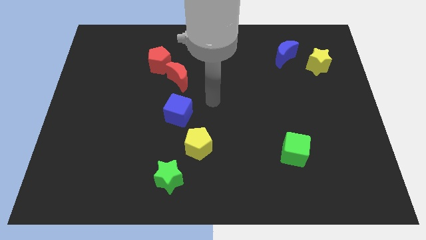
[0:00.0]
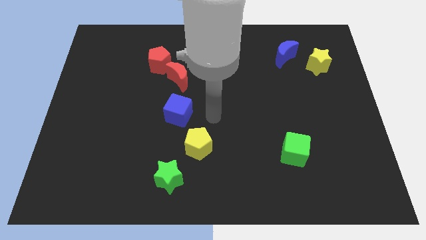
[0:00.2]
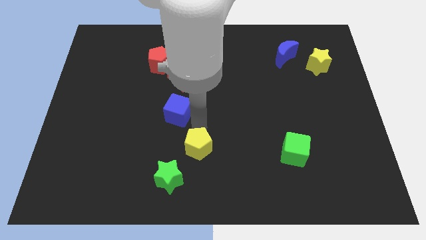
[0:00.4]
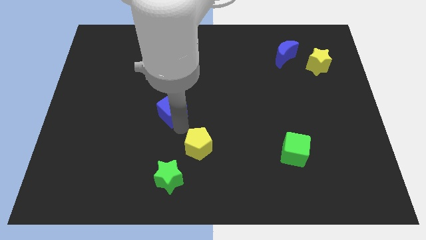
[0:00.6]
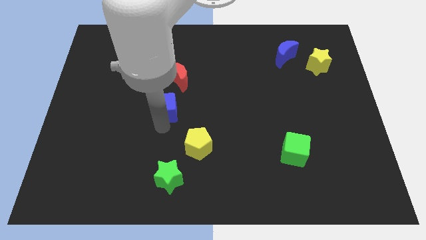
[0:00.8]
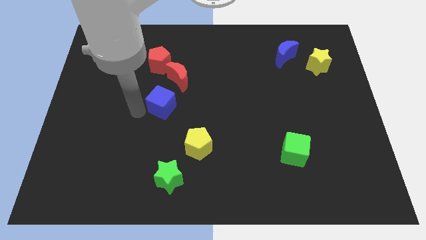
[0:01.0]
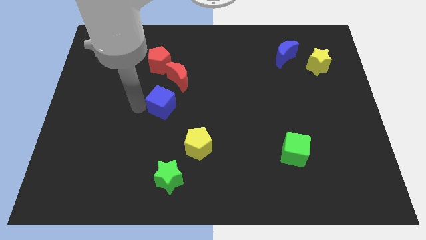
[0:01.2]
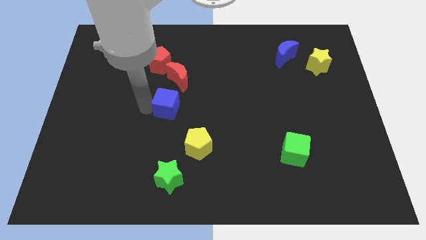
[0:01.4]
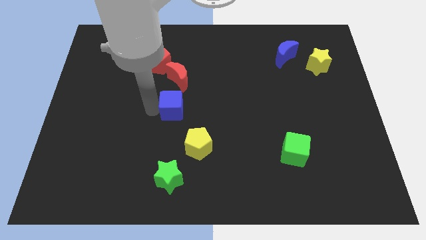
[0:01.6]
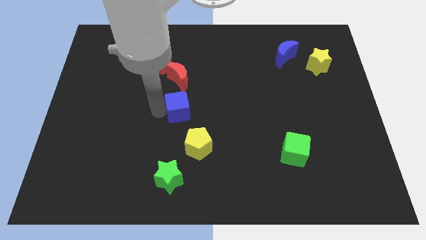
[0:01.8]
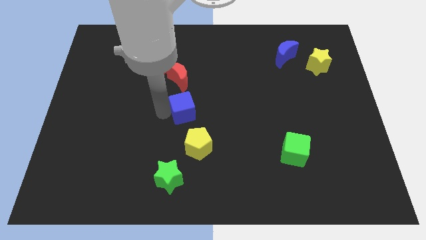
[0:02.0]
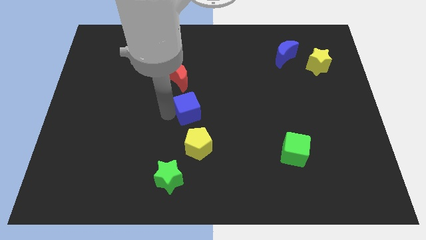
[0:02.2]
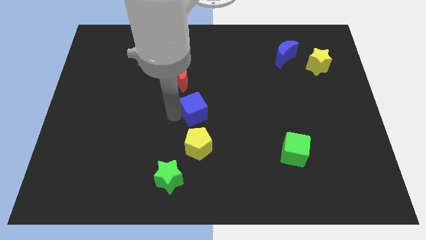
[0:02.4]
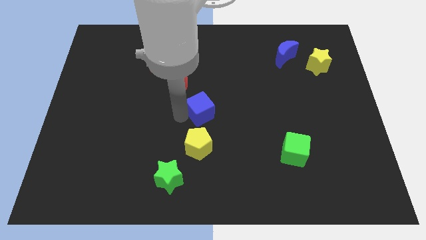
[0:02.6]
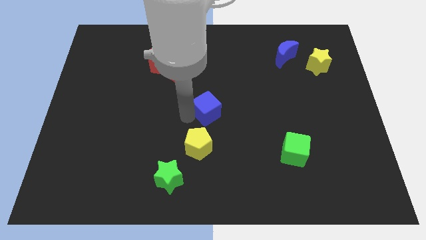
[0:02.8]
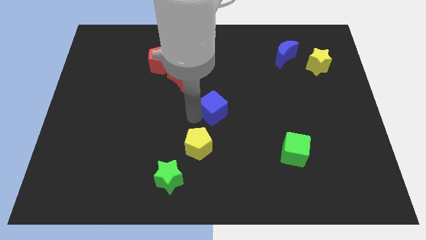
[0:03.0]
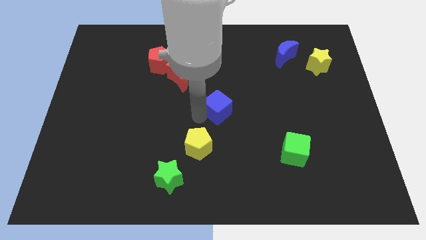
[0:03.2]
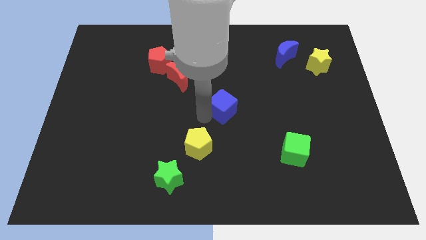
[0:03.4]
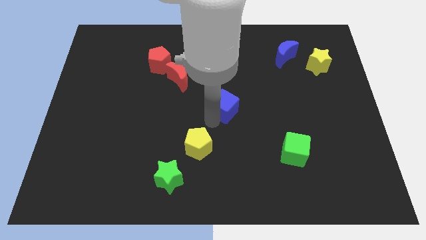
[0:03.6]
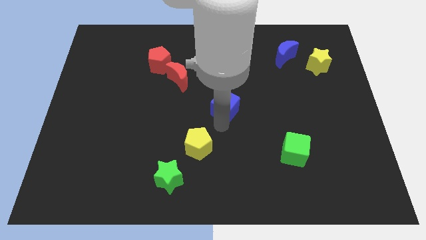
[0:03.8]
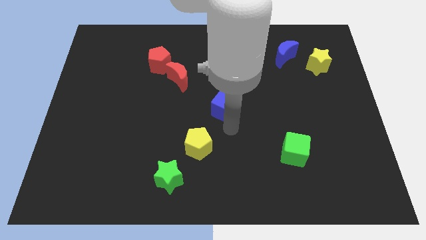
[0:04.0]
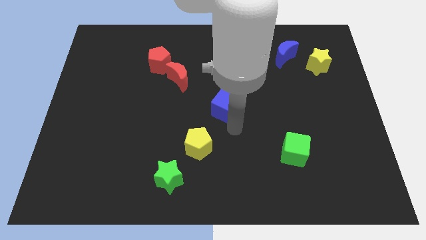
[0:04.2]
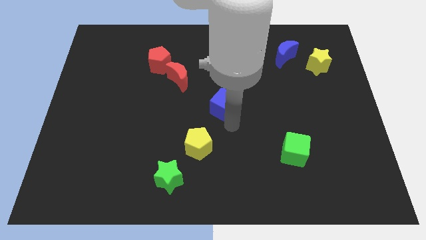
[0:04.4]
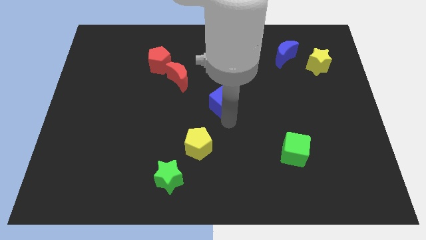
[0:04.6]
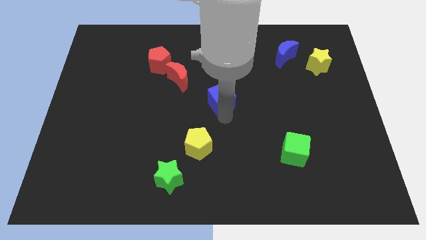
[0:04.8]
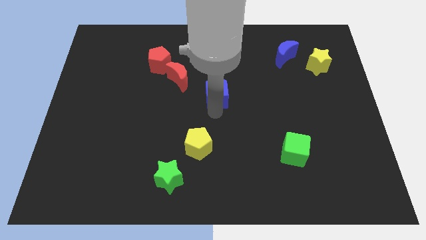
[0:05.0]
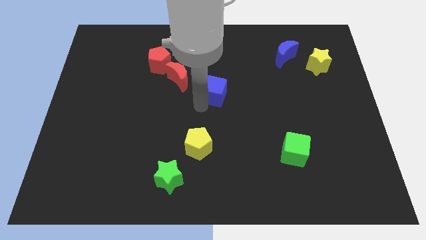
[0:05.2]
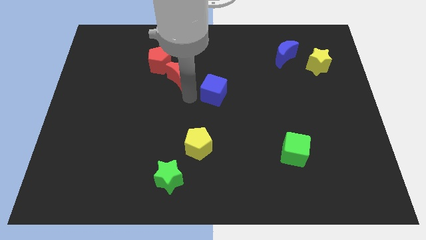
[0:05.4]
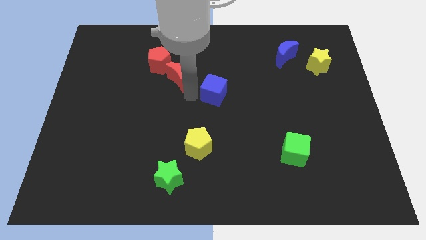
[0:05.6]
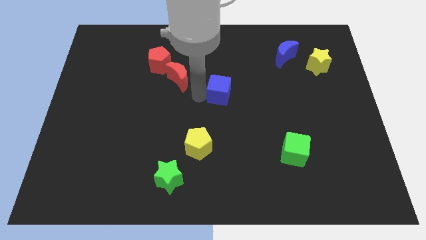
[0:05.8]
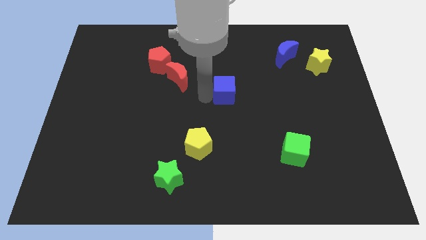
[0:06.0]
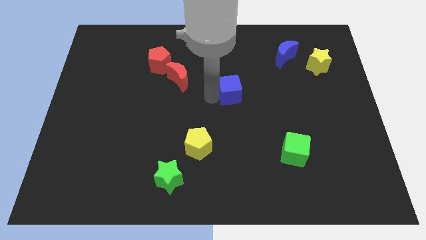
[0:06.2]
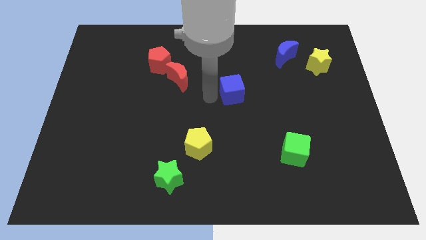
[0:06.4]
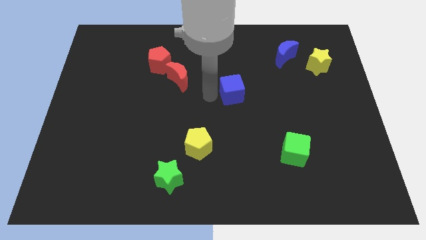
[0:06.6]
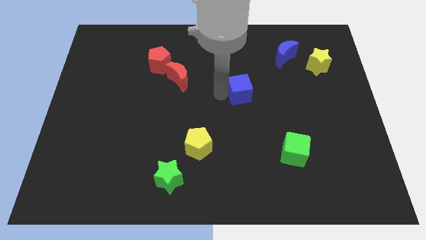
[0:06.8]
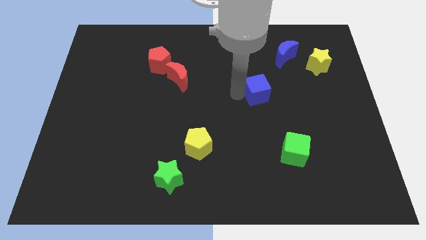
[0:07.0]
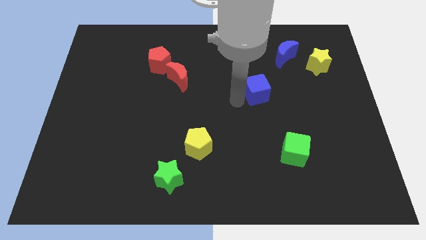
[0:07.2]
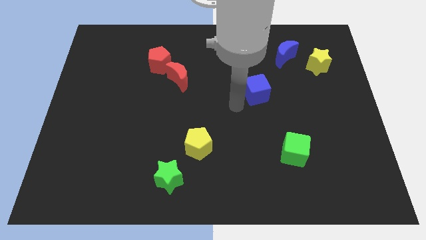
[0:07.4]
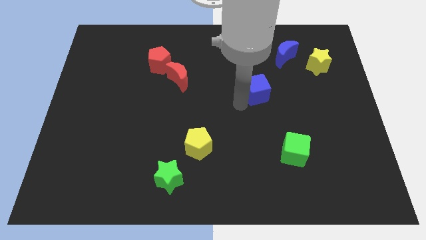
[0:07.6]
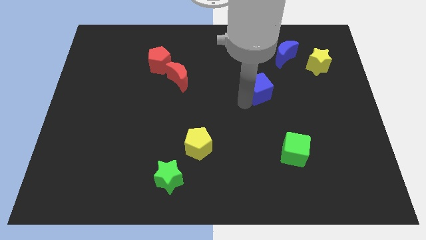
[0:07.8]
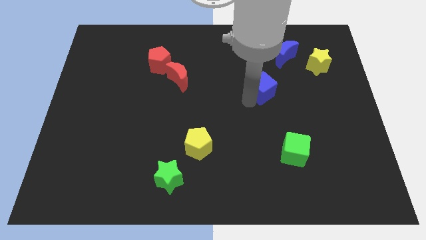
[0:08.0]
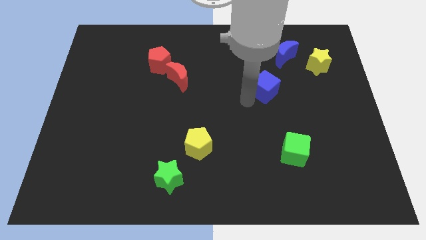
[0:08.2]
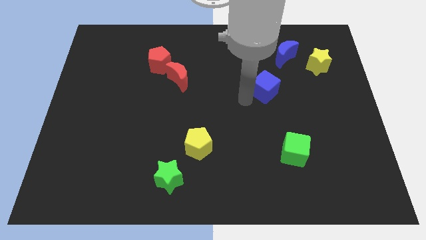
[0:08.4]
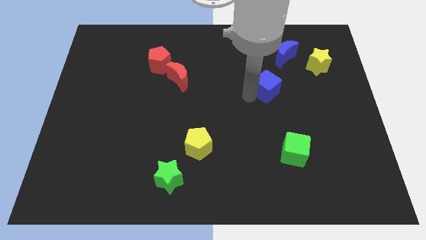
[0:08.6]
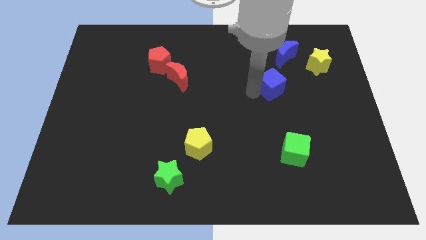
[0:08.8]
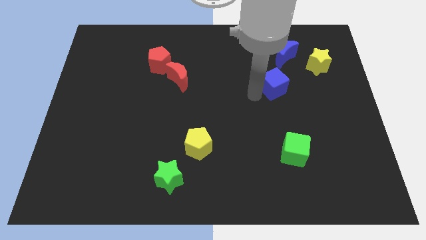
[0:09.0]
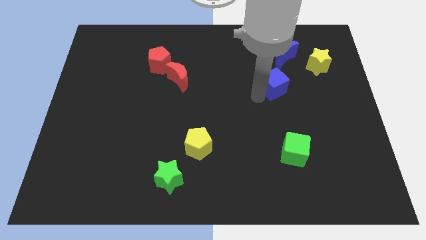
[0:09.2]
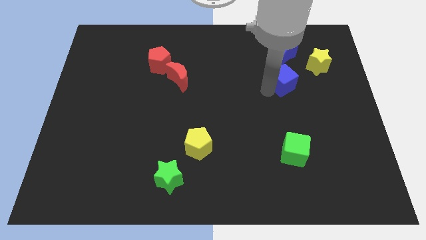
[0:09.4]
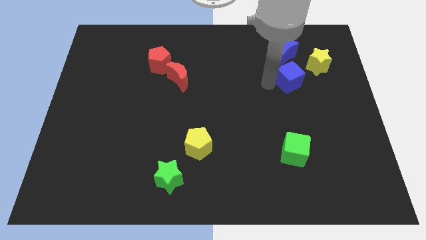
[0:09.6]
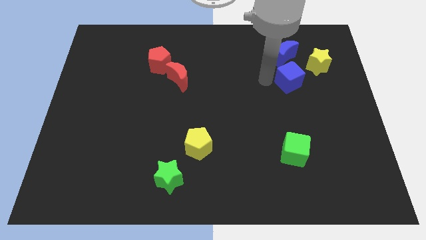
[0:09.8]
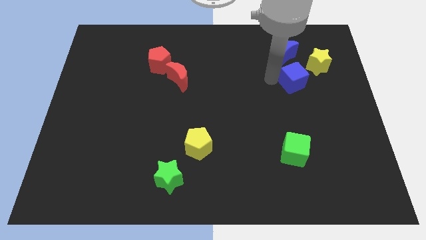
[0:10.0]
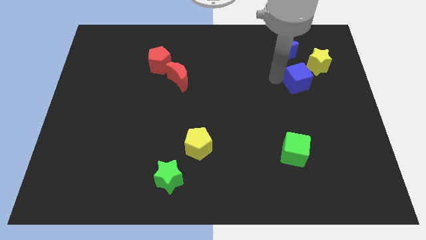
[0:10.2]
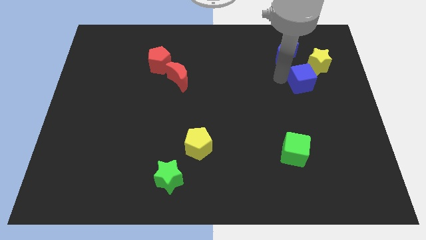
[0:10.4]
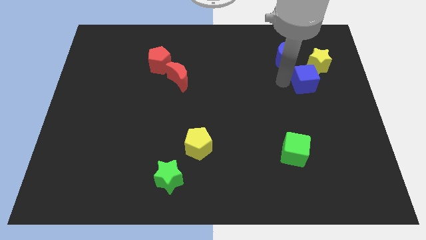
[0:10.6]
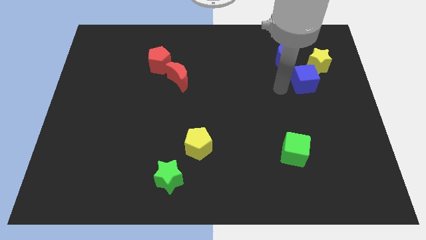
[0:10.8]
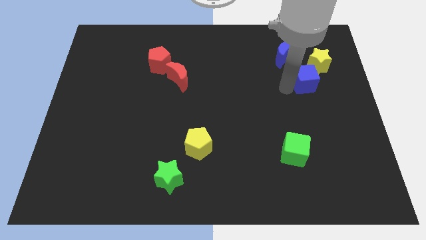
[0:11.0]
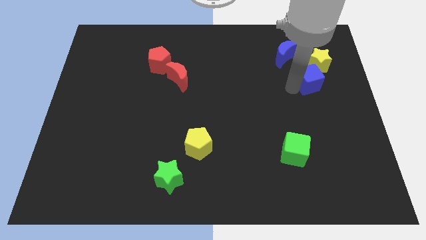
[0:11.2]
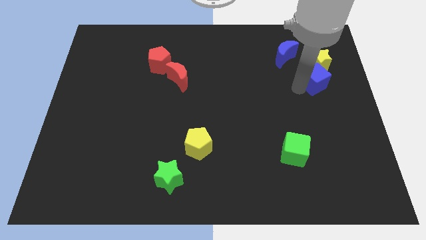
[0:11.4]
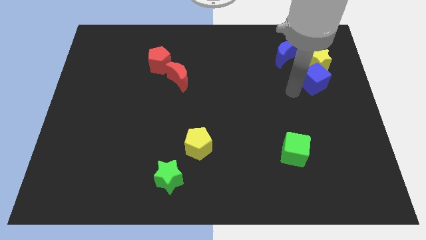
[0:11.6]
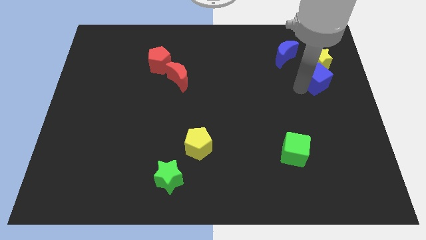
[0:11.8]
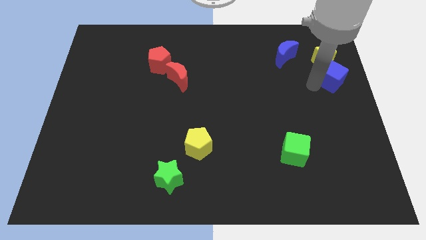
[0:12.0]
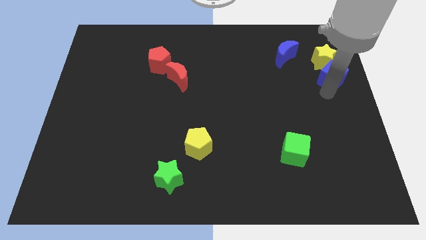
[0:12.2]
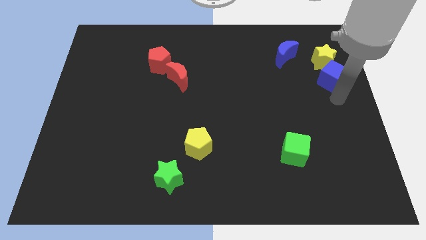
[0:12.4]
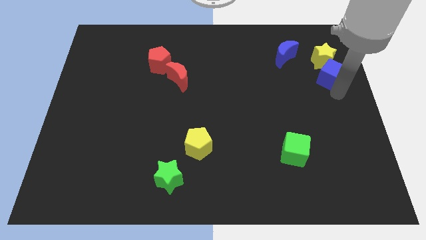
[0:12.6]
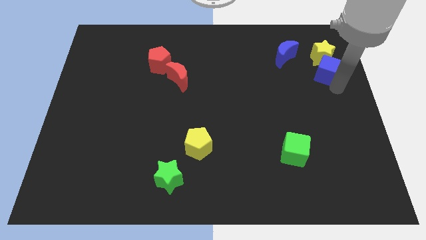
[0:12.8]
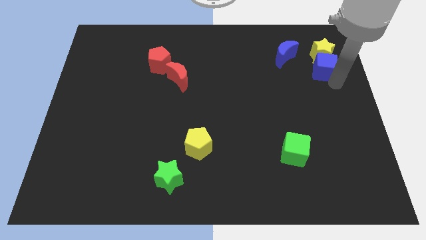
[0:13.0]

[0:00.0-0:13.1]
slide the blue cube to the right of the blue moon

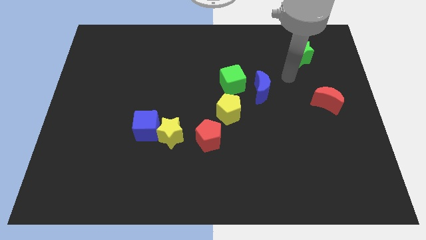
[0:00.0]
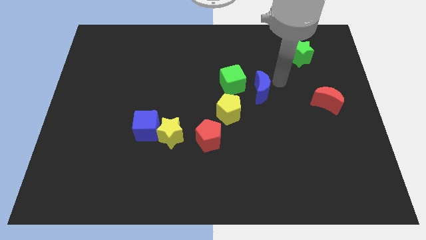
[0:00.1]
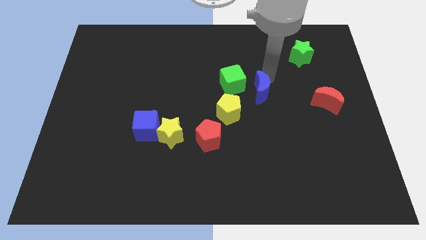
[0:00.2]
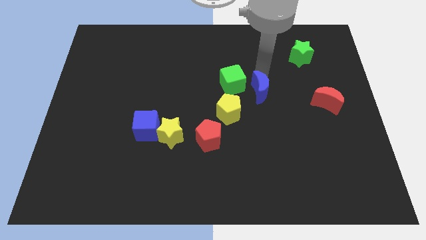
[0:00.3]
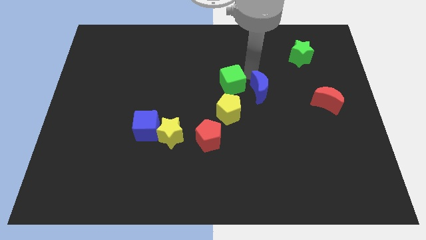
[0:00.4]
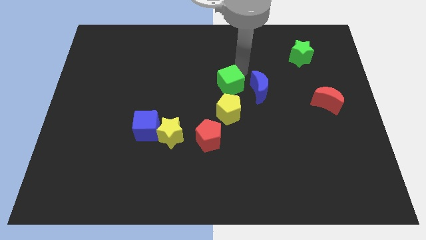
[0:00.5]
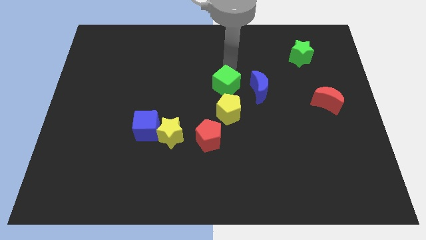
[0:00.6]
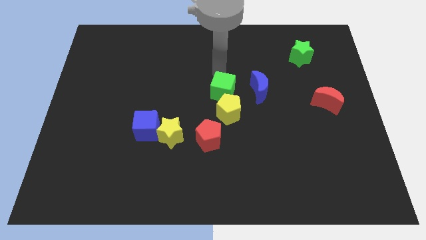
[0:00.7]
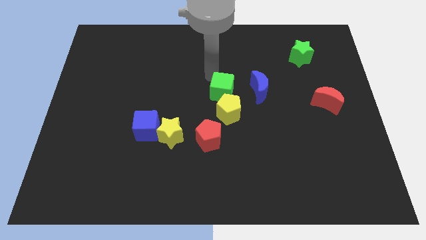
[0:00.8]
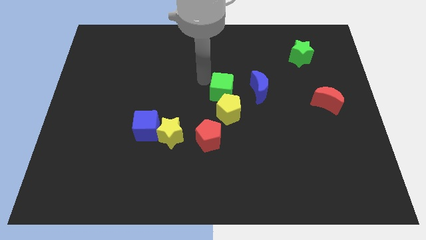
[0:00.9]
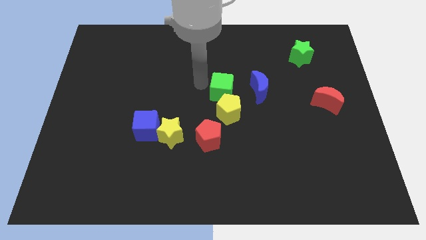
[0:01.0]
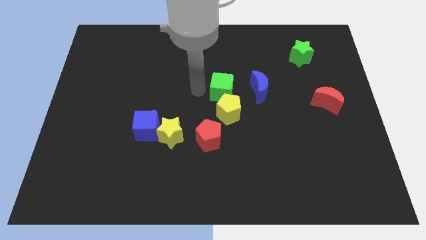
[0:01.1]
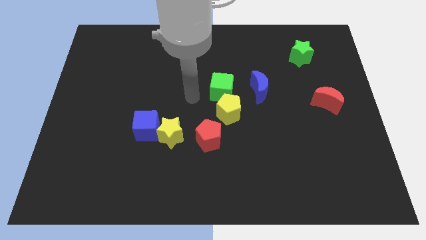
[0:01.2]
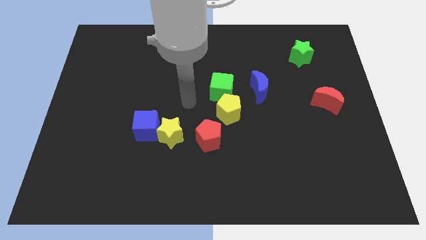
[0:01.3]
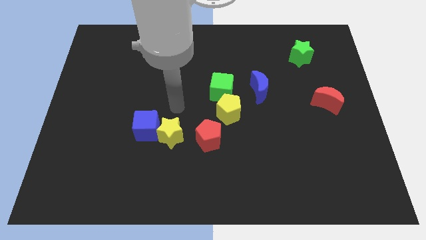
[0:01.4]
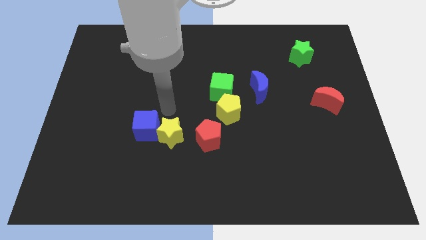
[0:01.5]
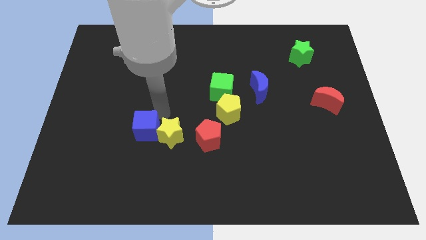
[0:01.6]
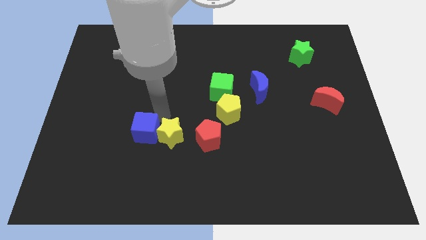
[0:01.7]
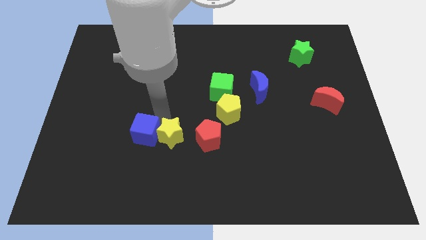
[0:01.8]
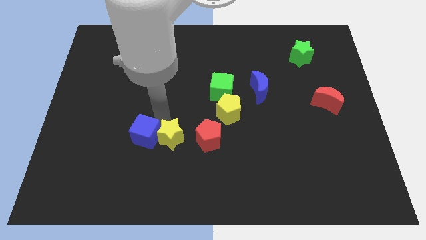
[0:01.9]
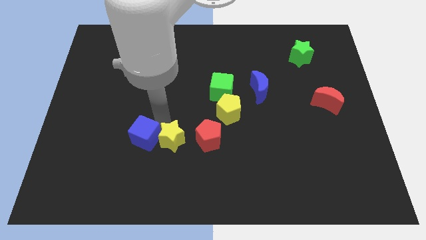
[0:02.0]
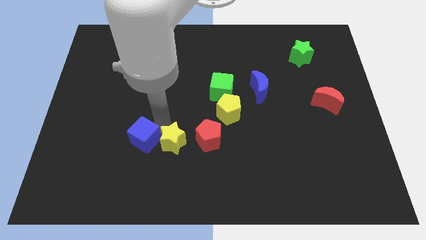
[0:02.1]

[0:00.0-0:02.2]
move the yellow star to the bottom left side of the red pentagon
